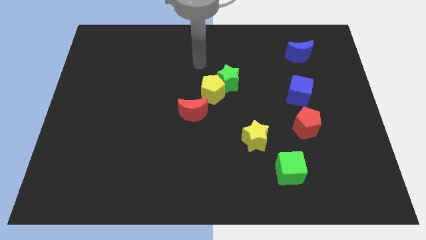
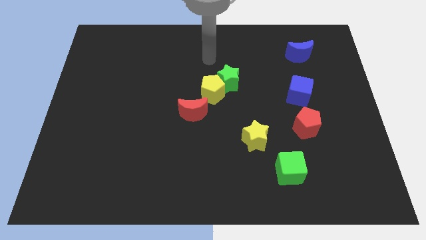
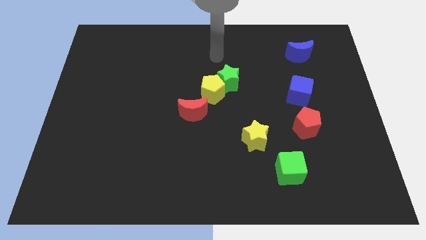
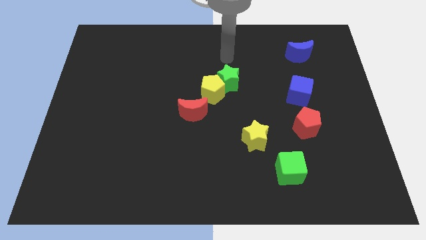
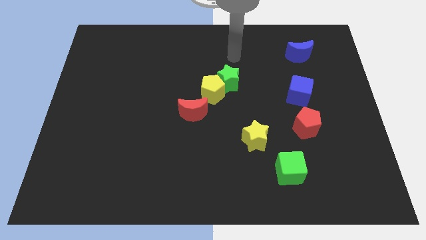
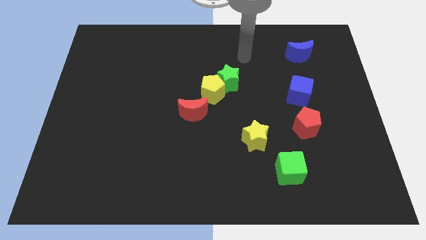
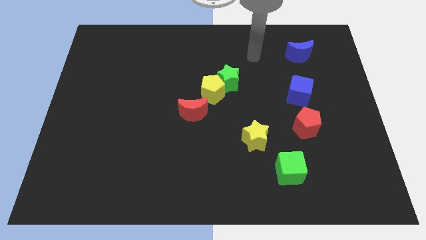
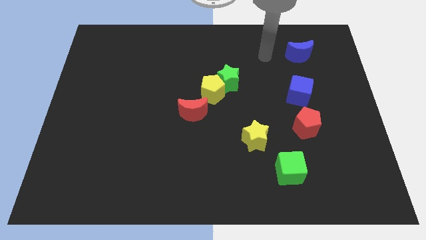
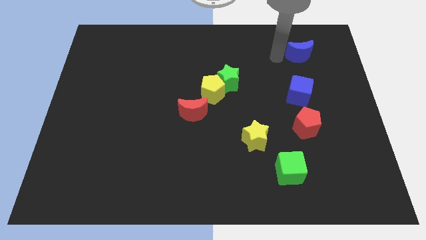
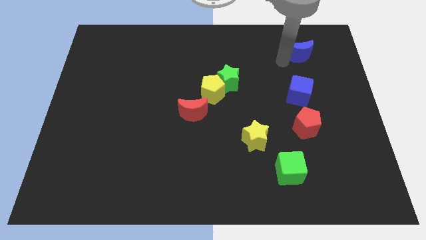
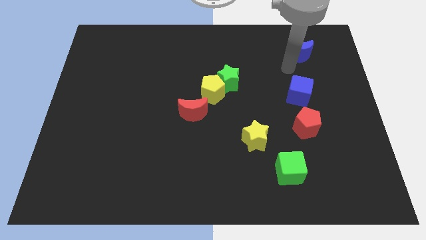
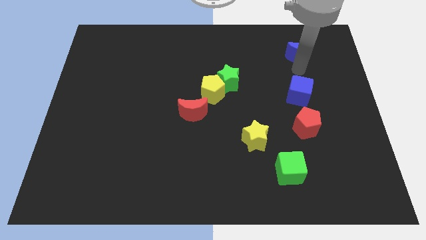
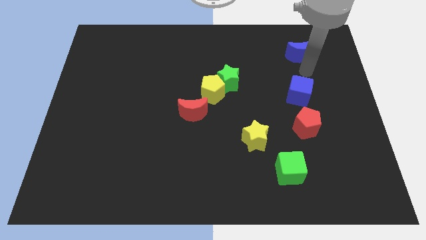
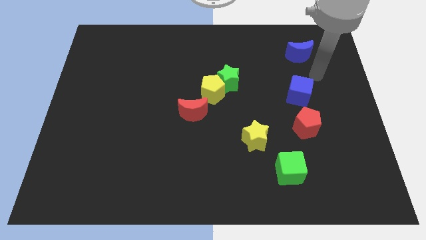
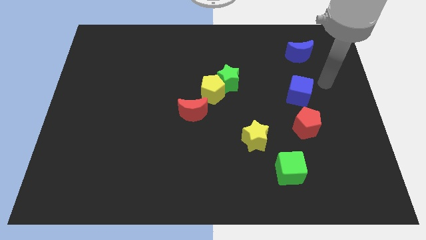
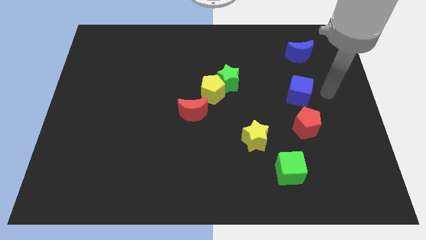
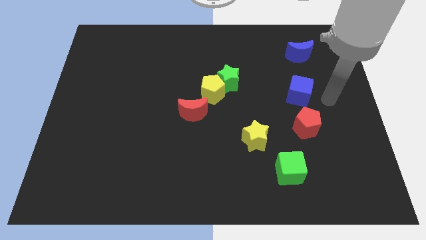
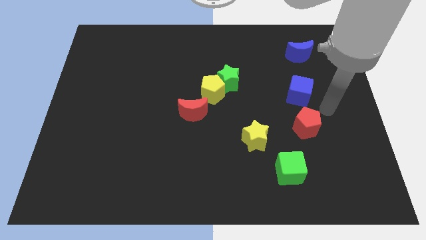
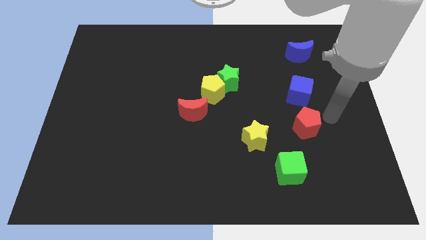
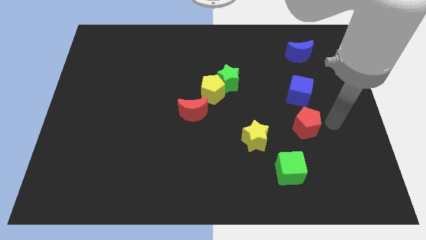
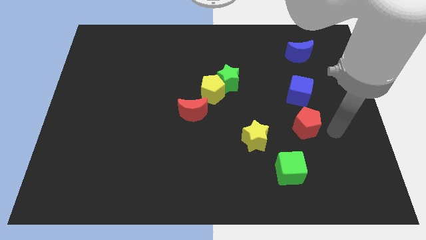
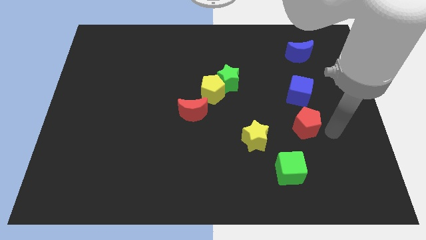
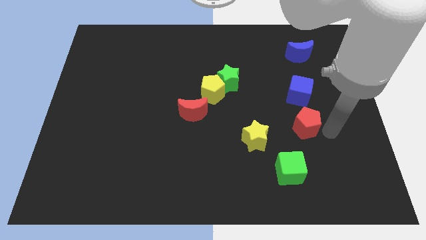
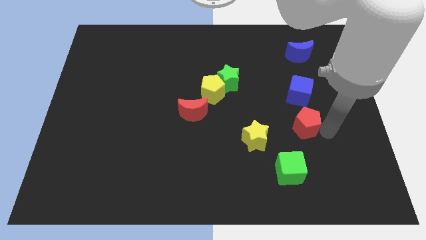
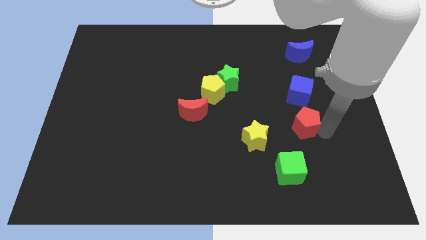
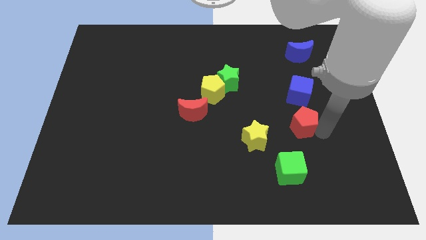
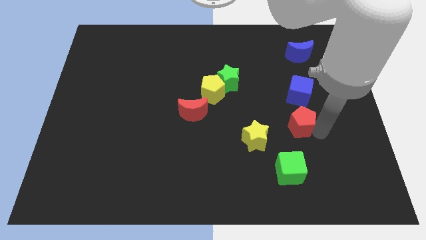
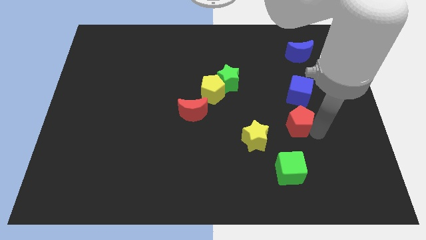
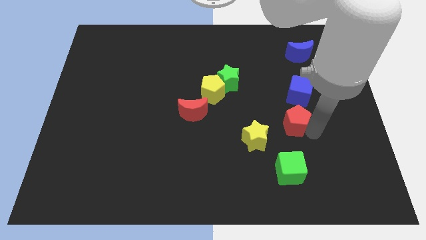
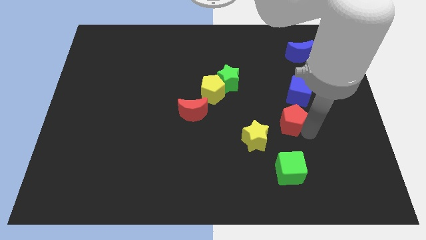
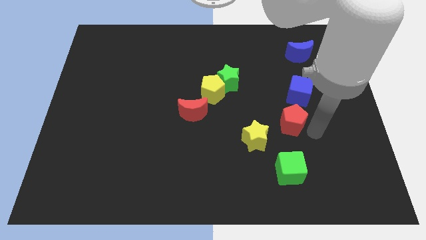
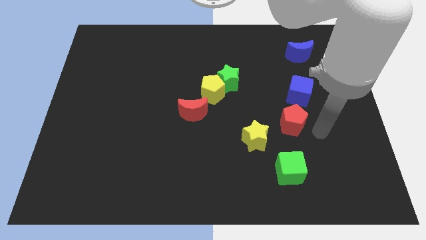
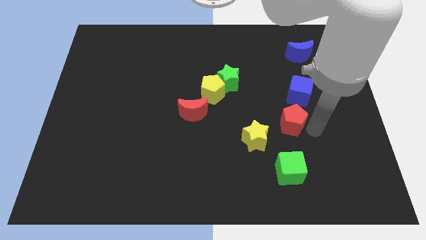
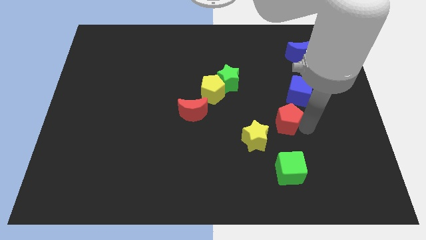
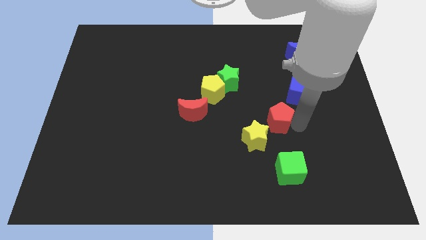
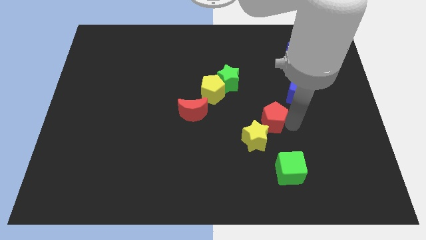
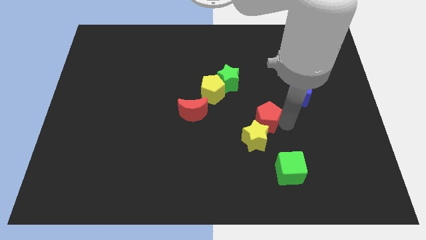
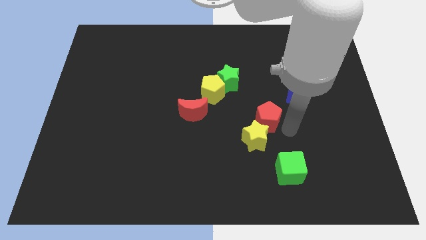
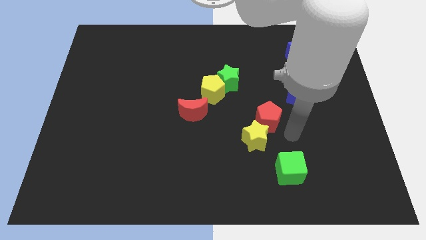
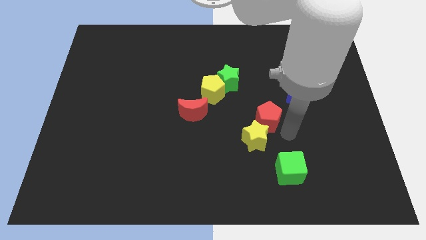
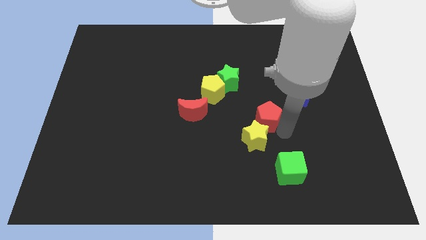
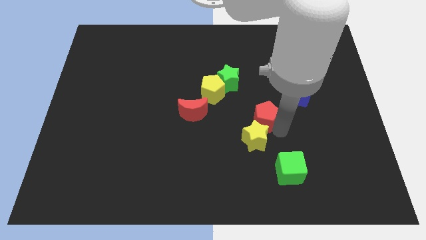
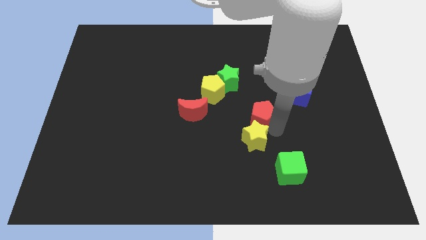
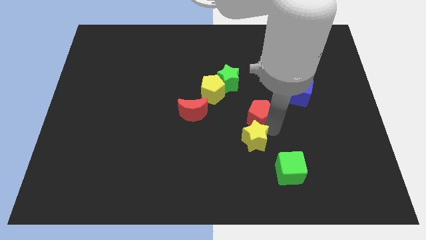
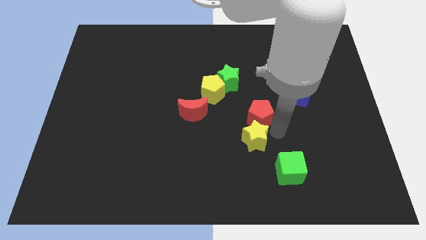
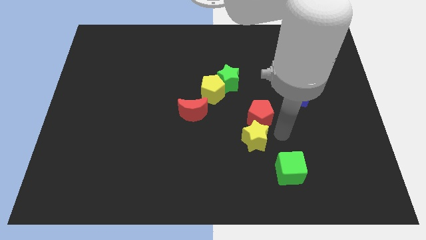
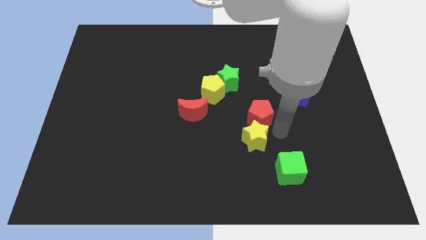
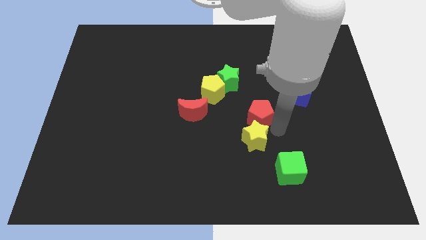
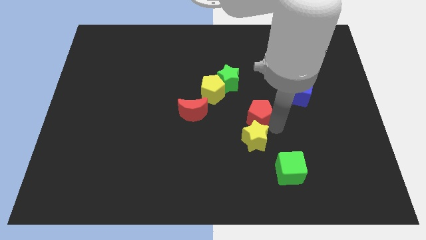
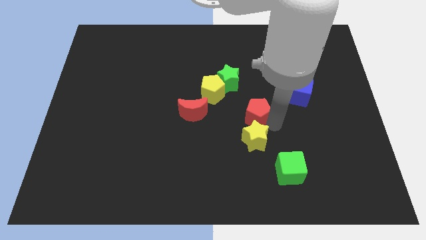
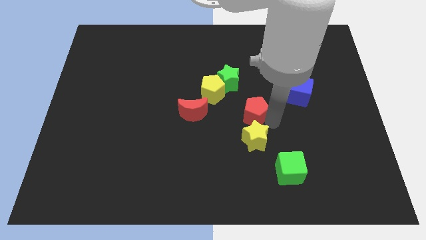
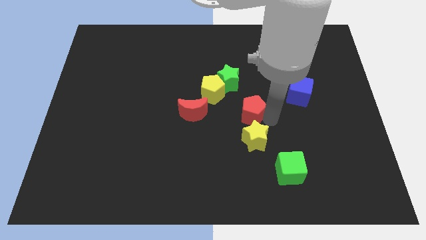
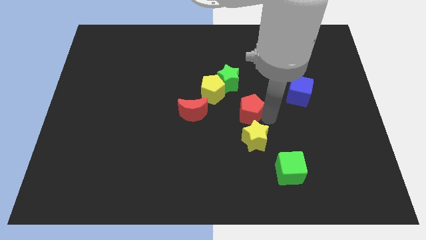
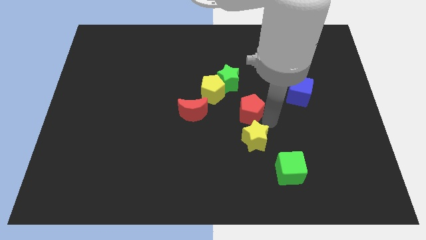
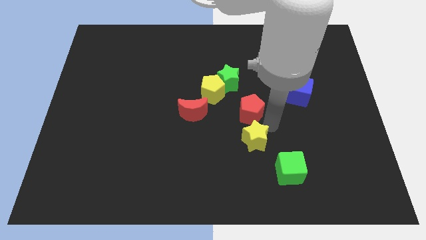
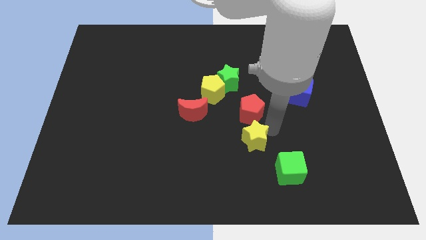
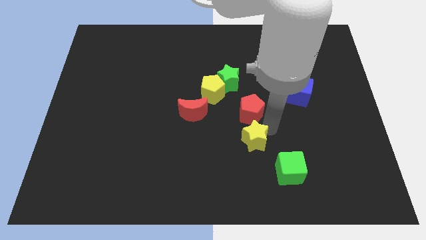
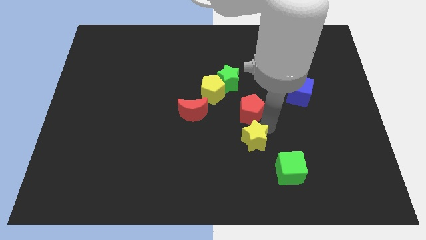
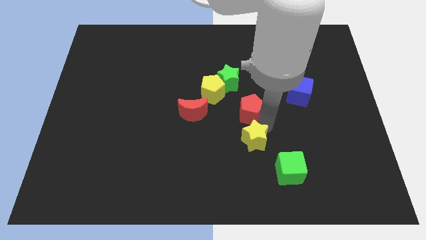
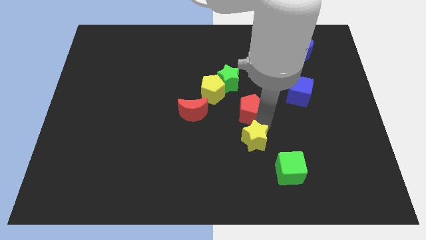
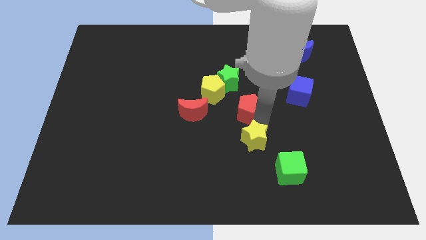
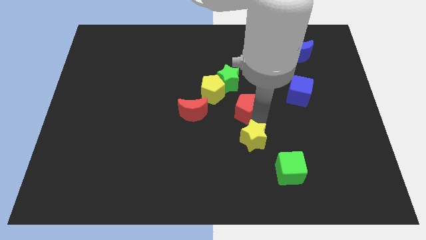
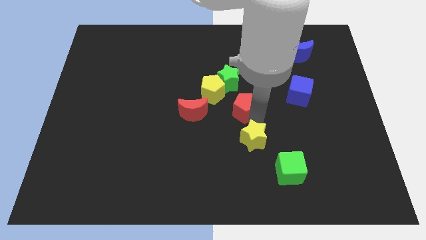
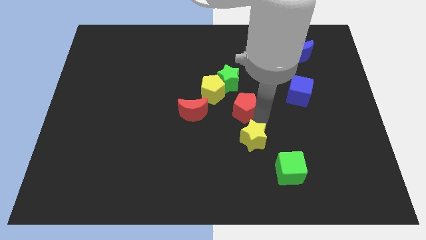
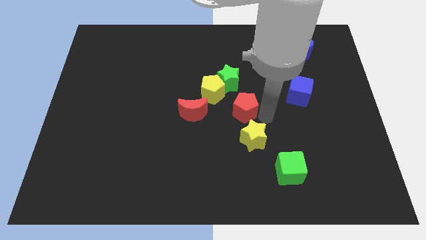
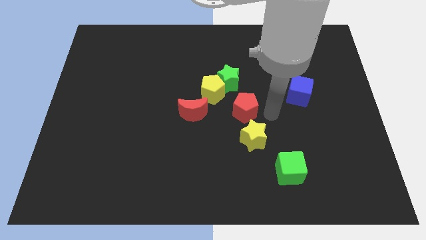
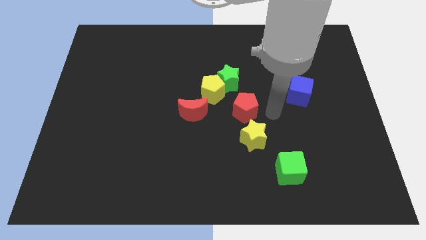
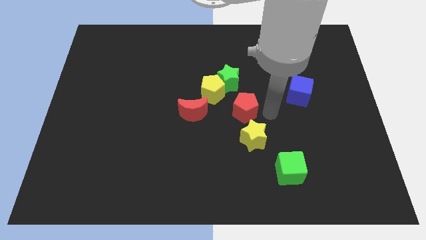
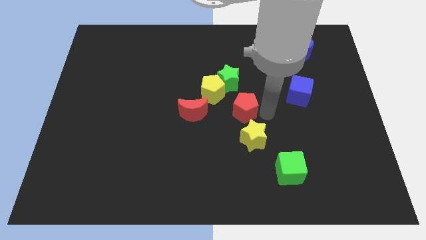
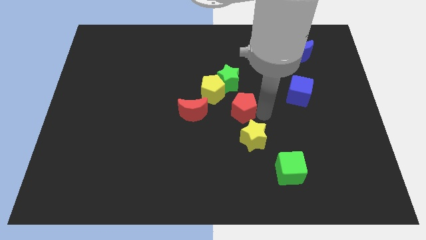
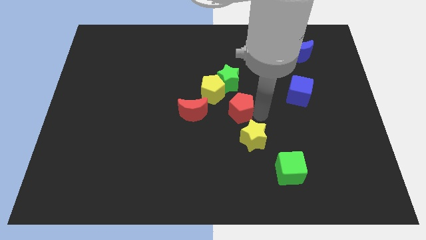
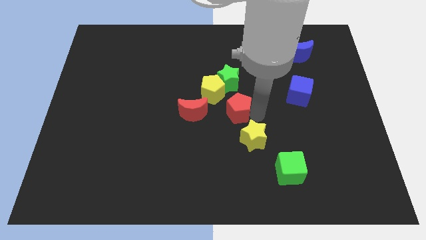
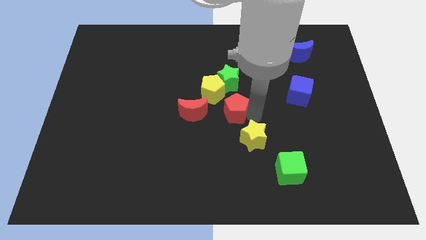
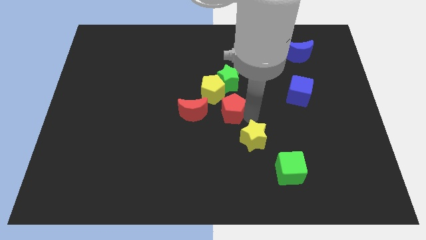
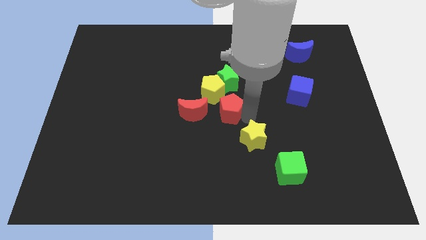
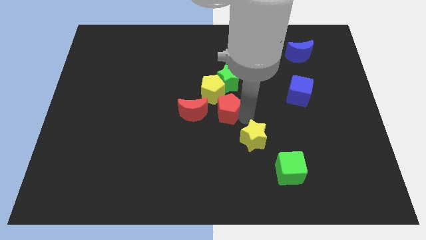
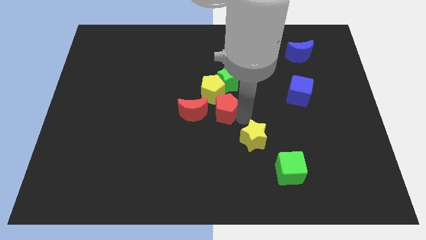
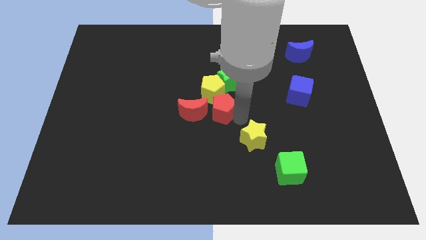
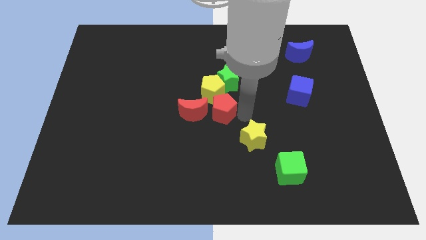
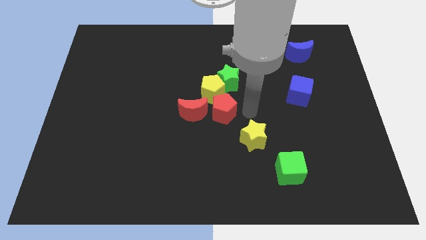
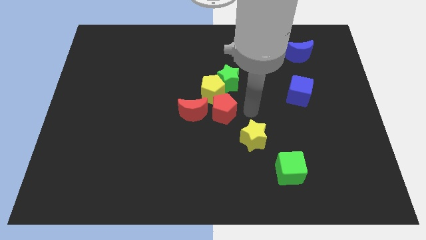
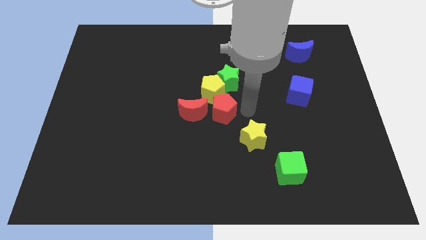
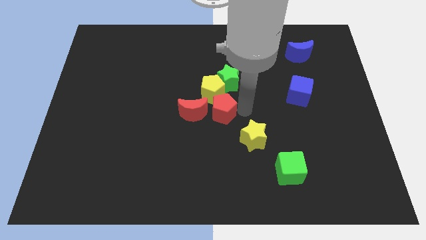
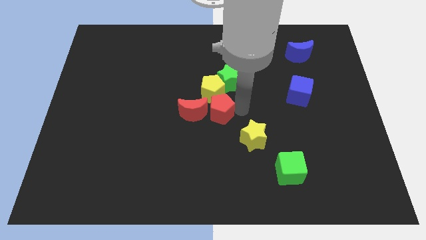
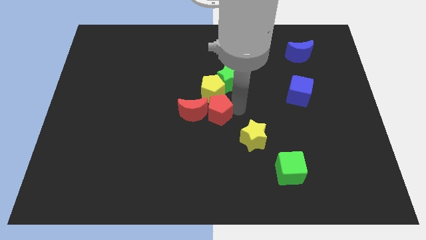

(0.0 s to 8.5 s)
move the red pentagon close to the red moon
